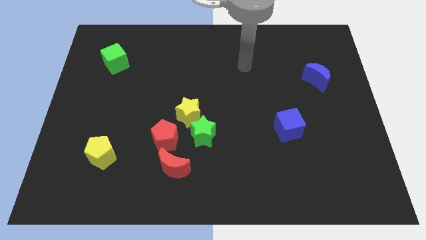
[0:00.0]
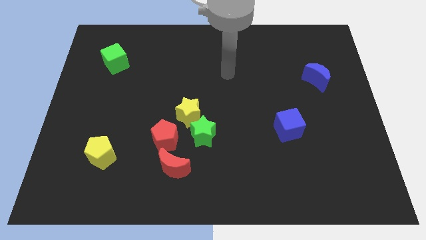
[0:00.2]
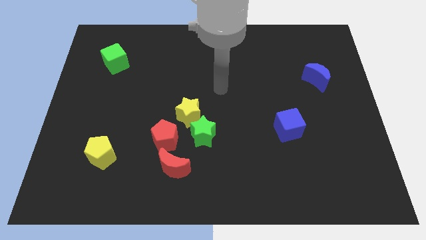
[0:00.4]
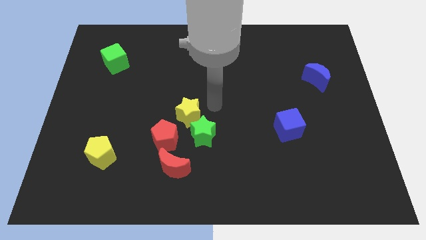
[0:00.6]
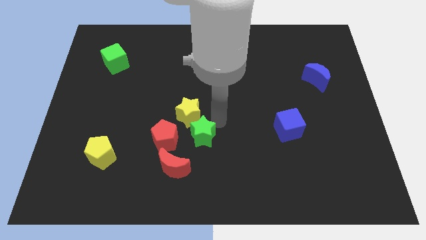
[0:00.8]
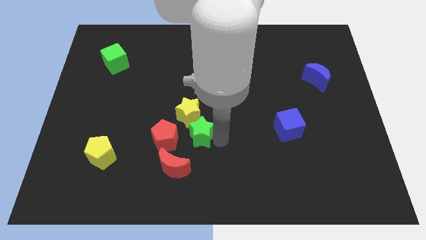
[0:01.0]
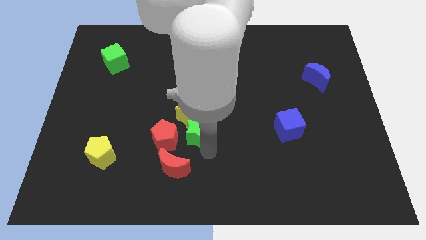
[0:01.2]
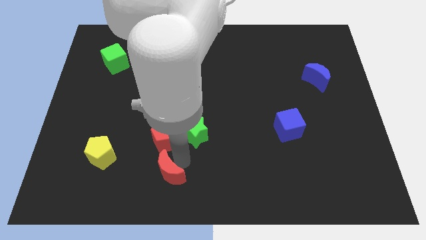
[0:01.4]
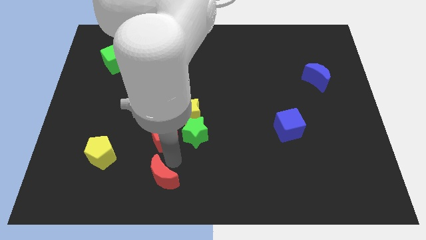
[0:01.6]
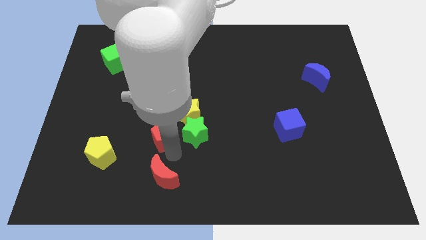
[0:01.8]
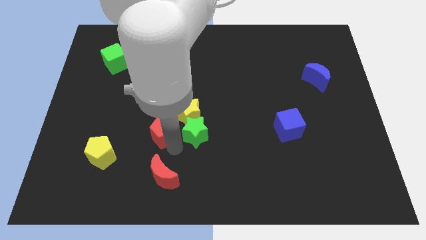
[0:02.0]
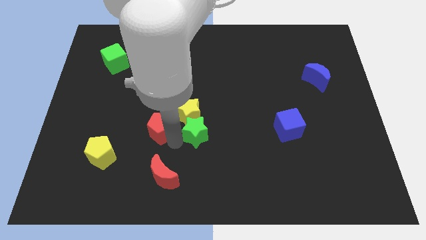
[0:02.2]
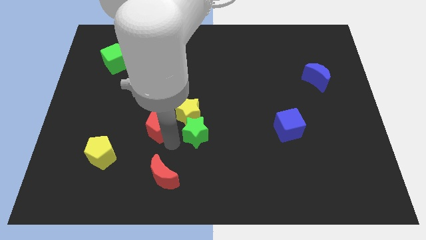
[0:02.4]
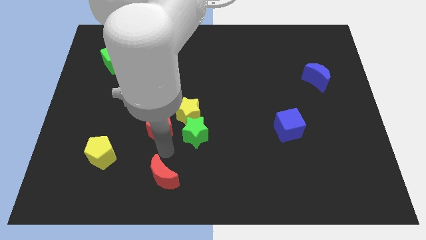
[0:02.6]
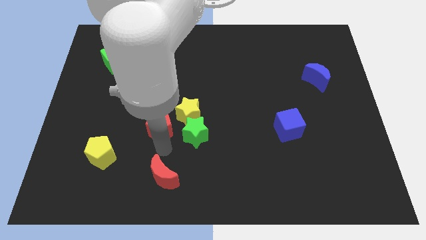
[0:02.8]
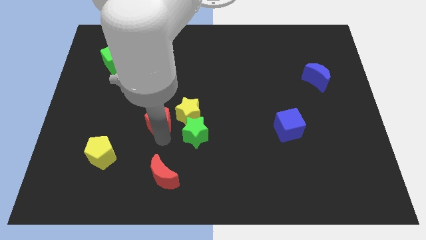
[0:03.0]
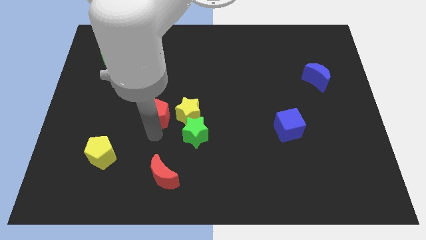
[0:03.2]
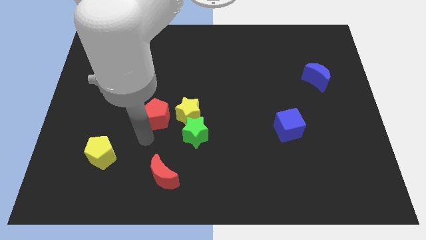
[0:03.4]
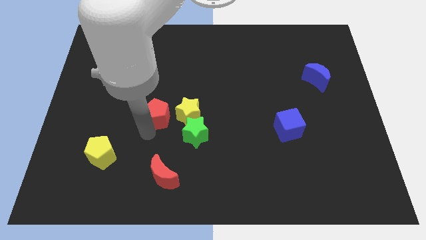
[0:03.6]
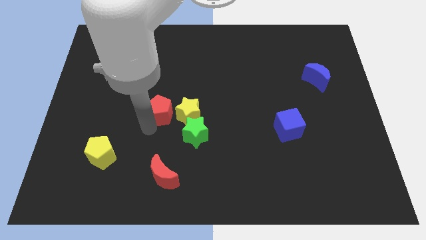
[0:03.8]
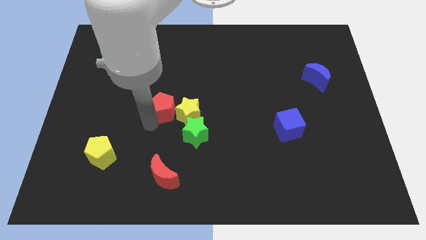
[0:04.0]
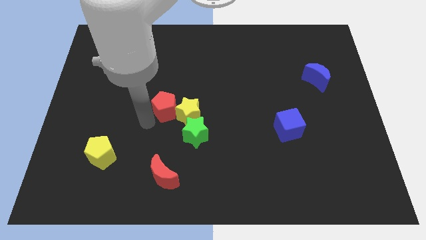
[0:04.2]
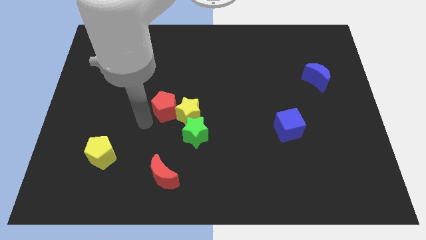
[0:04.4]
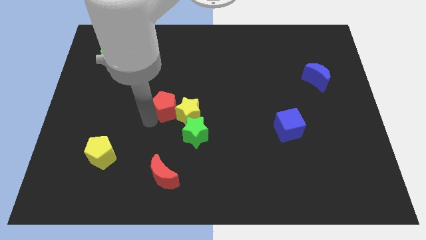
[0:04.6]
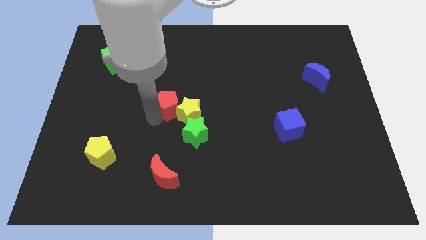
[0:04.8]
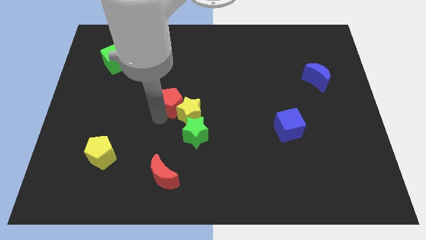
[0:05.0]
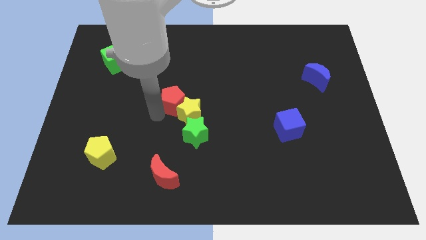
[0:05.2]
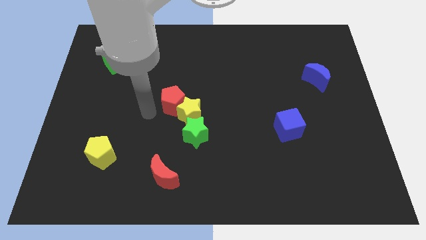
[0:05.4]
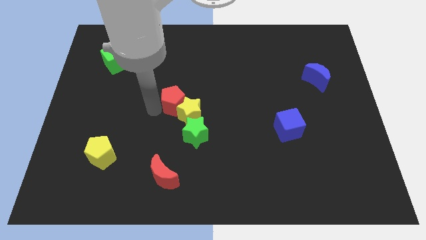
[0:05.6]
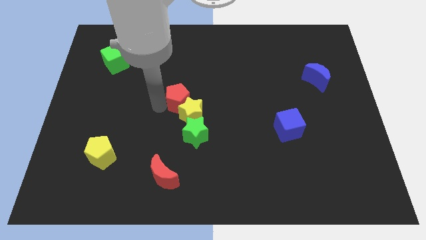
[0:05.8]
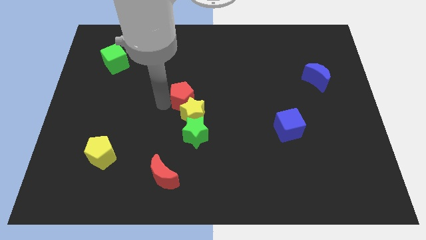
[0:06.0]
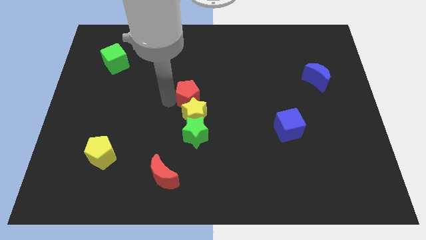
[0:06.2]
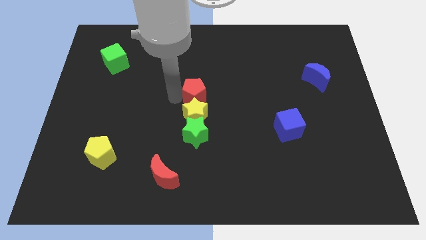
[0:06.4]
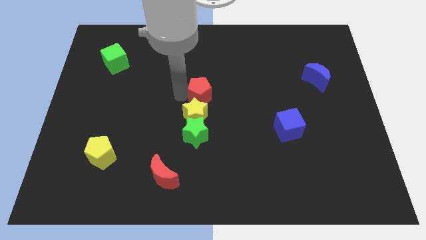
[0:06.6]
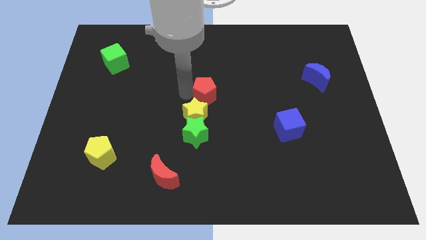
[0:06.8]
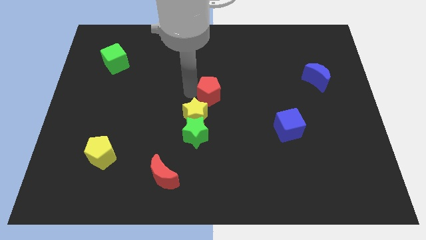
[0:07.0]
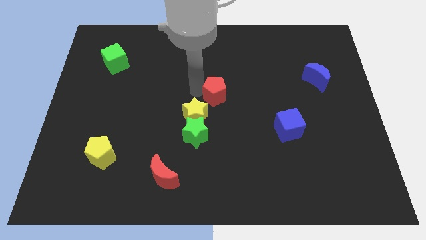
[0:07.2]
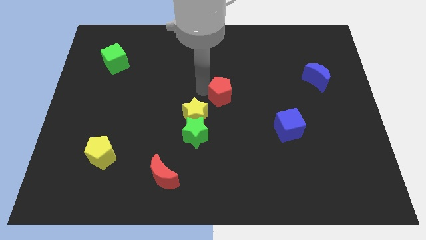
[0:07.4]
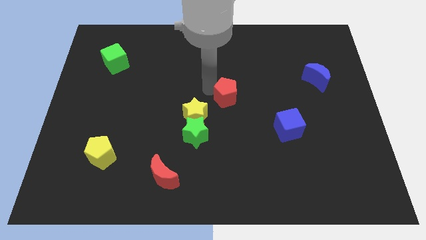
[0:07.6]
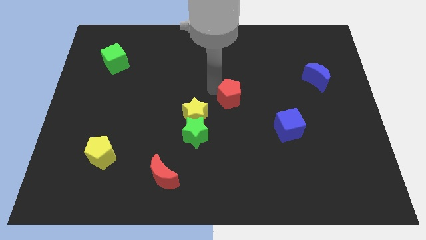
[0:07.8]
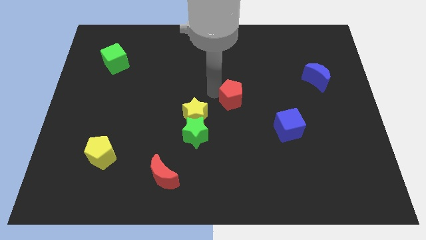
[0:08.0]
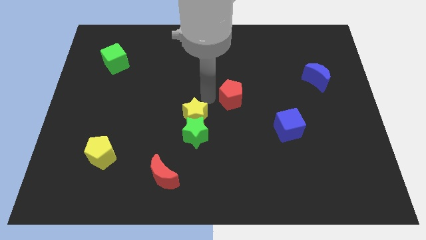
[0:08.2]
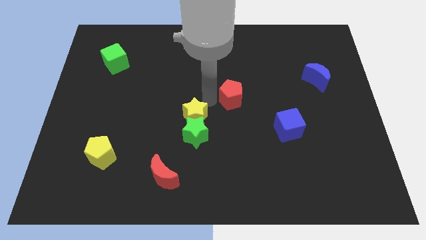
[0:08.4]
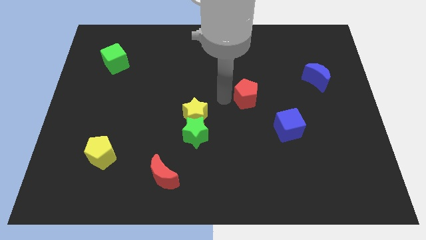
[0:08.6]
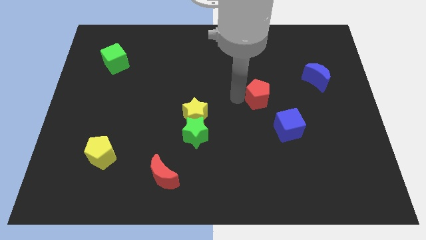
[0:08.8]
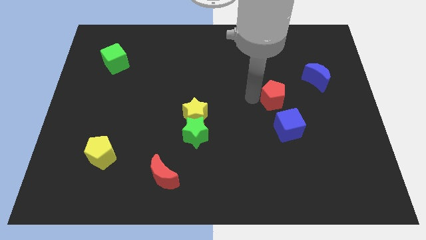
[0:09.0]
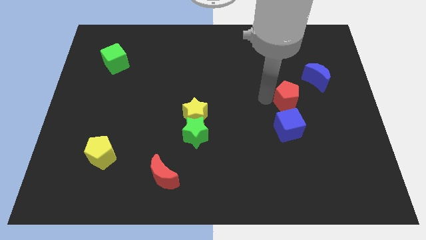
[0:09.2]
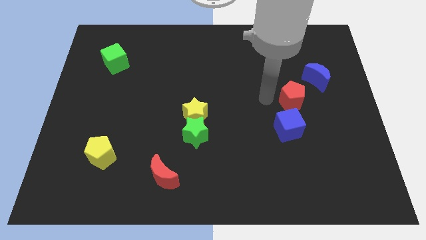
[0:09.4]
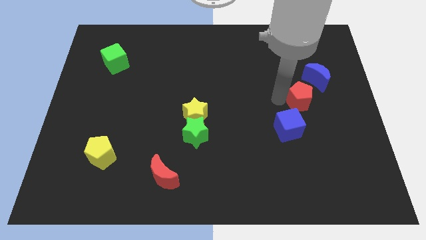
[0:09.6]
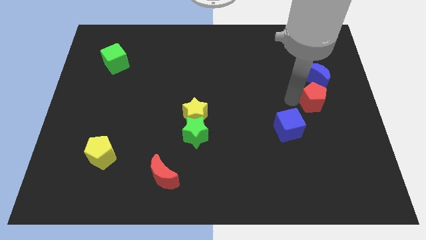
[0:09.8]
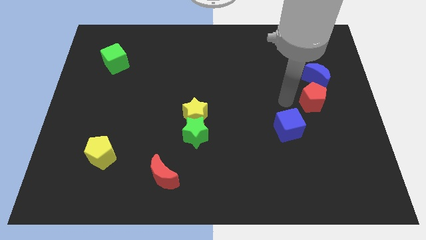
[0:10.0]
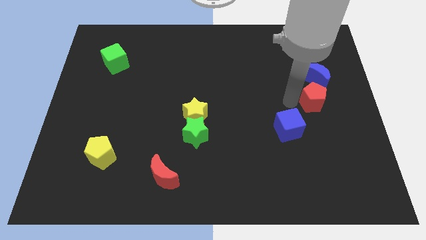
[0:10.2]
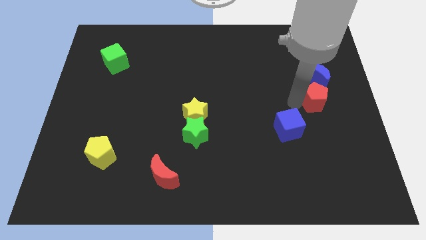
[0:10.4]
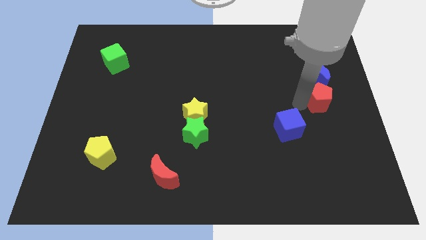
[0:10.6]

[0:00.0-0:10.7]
slide the red pentagon to the center right

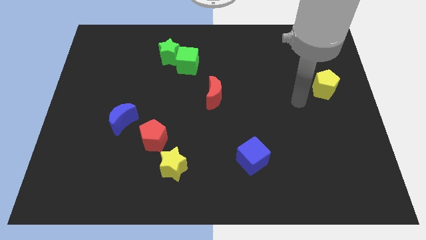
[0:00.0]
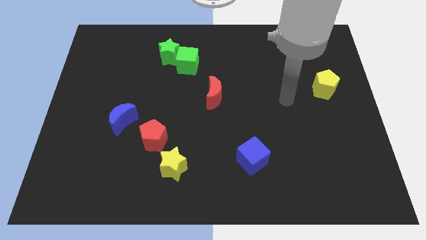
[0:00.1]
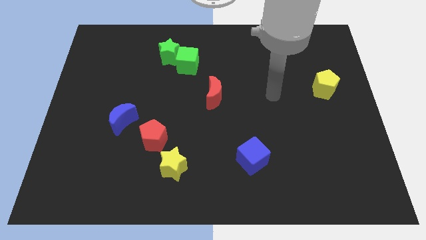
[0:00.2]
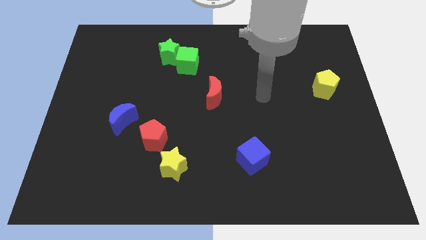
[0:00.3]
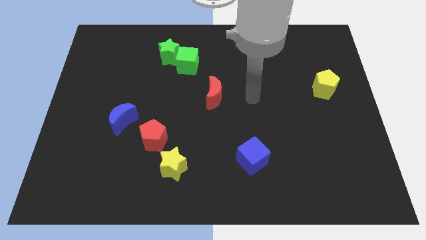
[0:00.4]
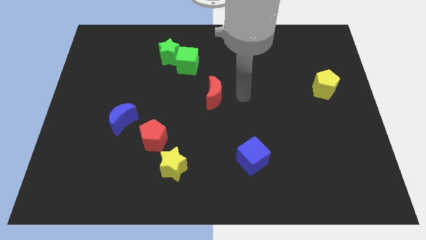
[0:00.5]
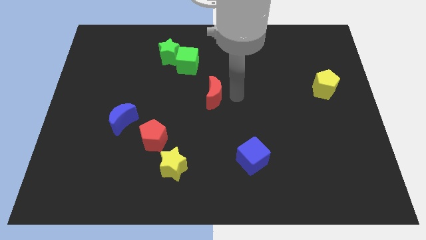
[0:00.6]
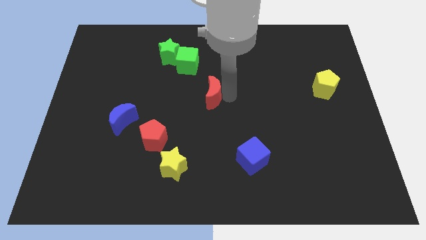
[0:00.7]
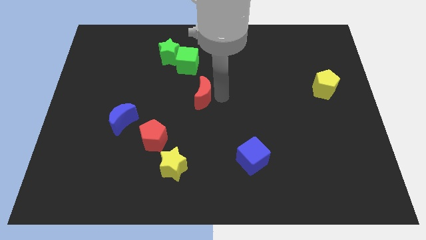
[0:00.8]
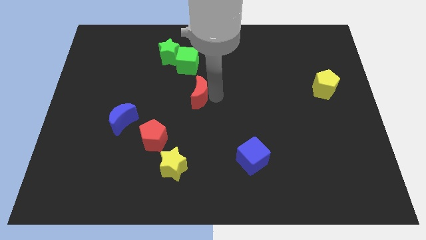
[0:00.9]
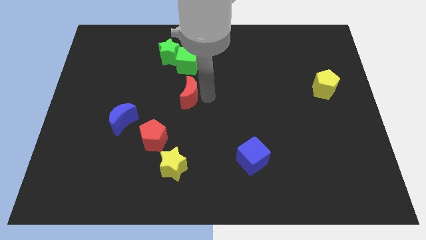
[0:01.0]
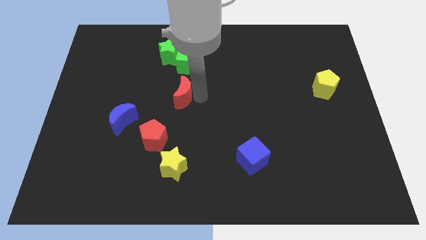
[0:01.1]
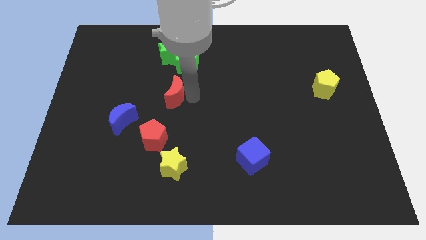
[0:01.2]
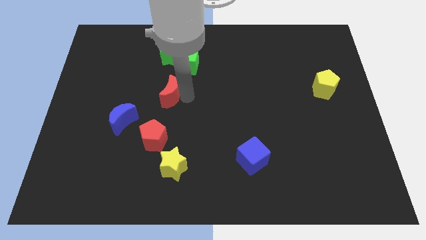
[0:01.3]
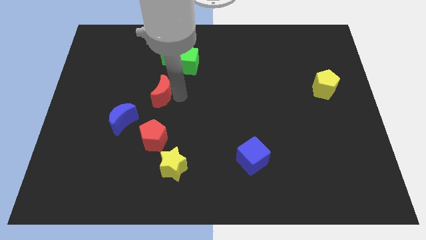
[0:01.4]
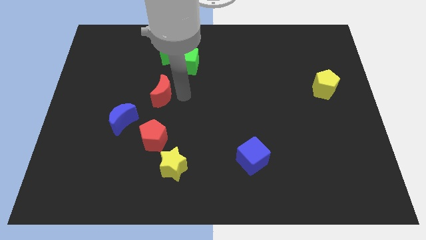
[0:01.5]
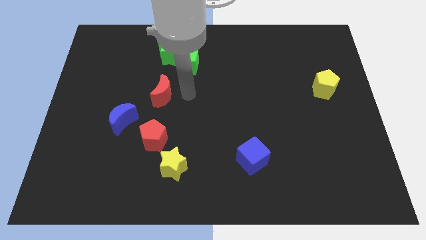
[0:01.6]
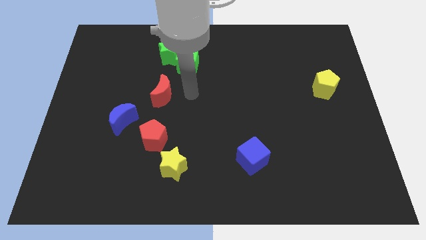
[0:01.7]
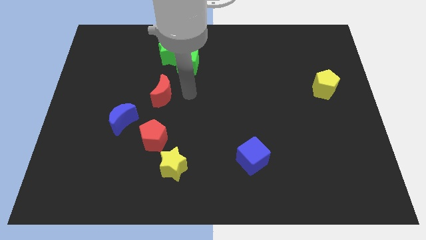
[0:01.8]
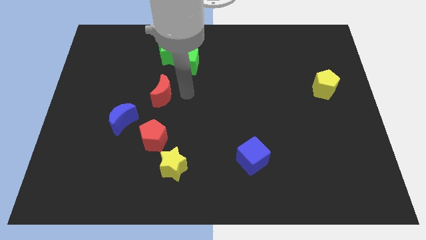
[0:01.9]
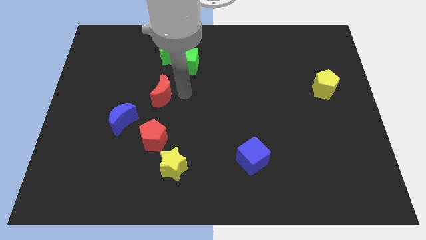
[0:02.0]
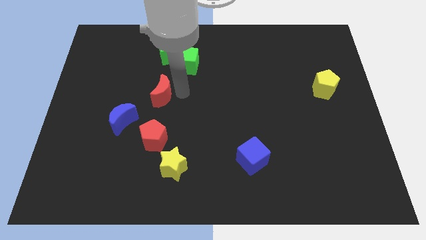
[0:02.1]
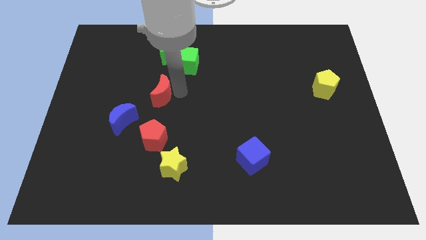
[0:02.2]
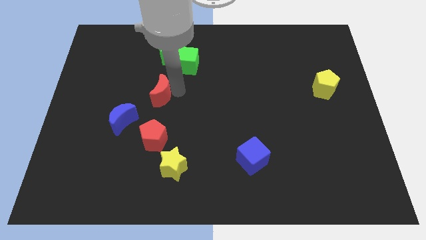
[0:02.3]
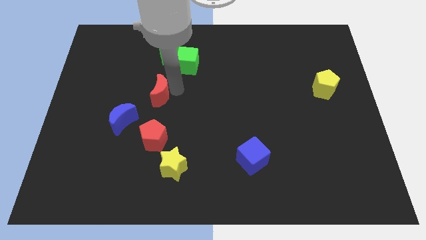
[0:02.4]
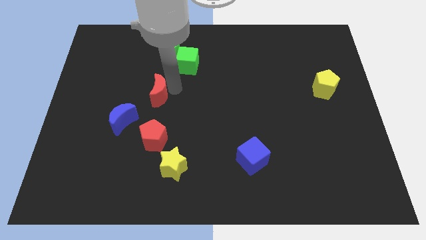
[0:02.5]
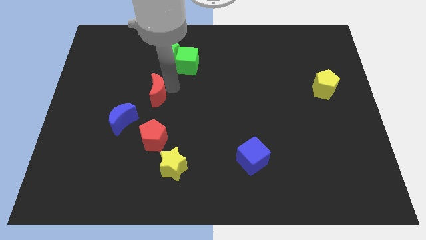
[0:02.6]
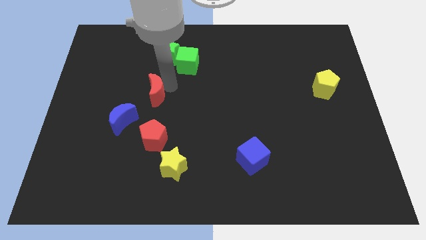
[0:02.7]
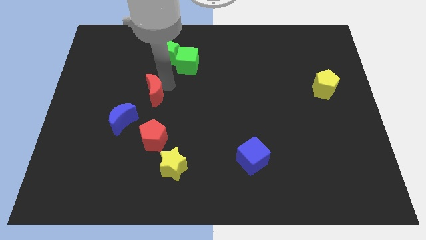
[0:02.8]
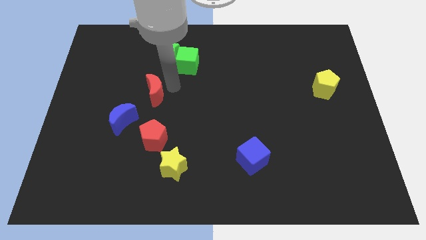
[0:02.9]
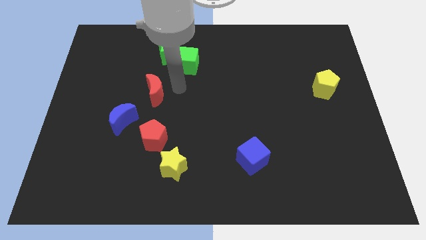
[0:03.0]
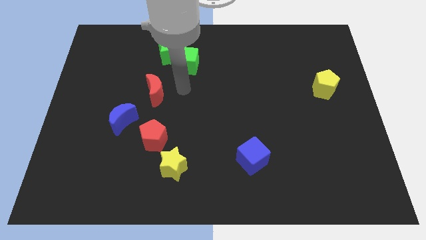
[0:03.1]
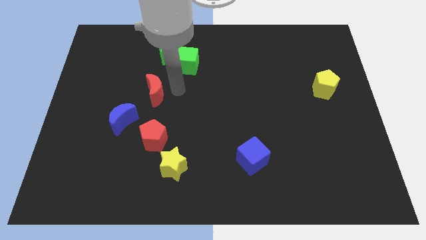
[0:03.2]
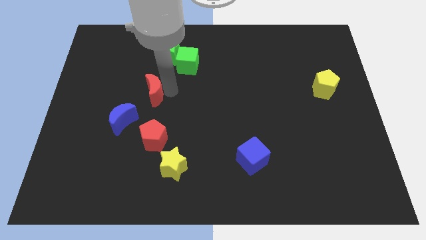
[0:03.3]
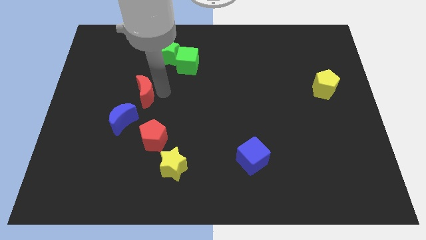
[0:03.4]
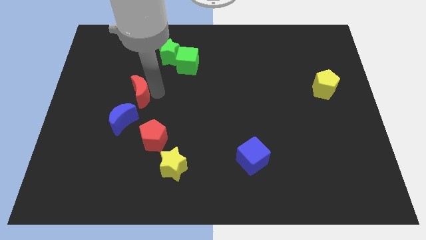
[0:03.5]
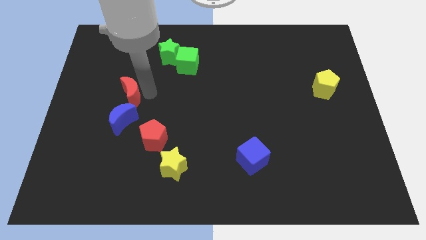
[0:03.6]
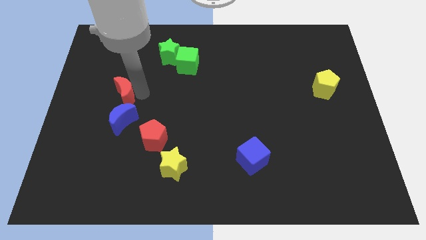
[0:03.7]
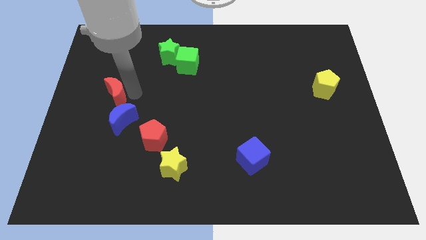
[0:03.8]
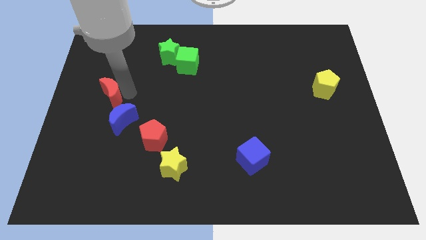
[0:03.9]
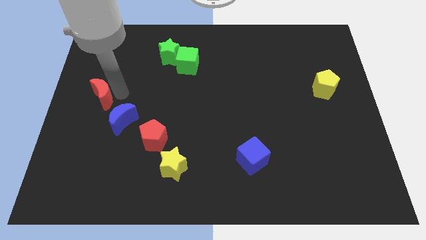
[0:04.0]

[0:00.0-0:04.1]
push the red moon to the left side
